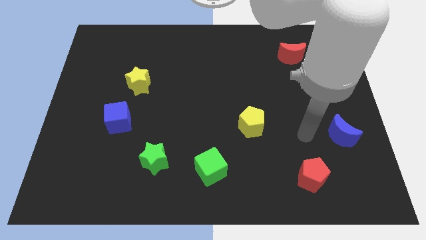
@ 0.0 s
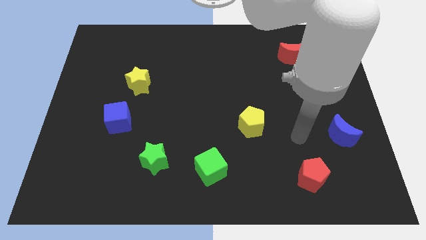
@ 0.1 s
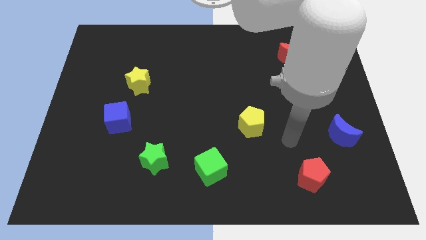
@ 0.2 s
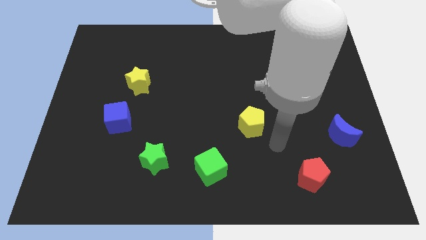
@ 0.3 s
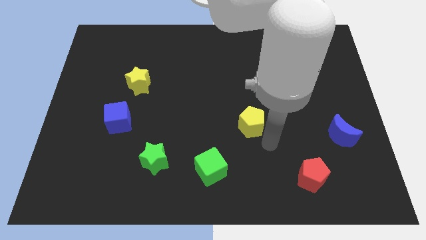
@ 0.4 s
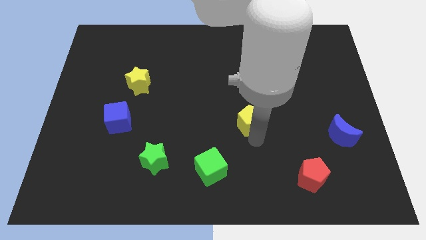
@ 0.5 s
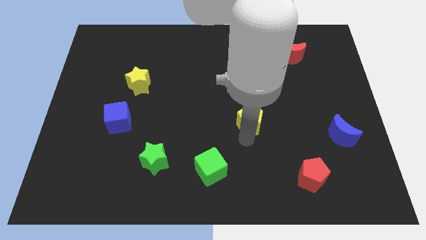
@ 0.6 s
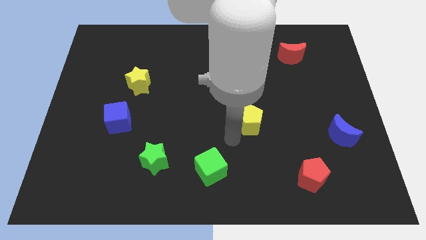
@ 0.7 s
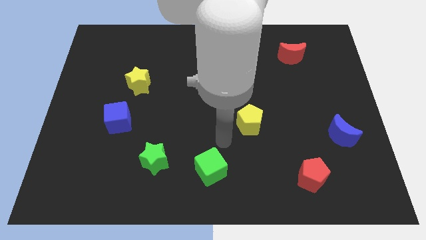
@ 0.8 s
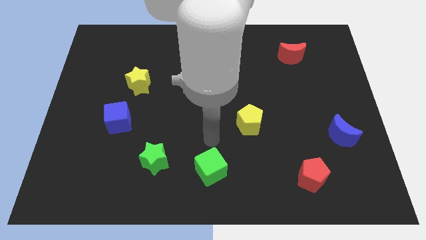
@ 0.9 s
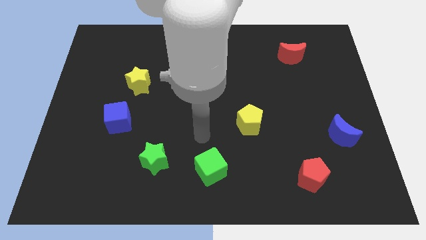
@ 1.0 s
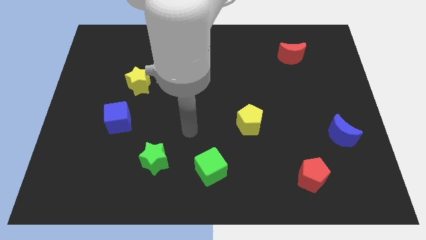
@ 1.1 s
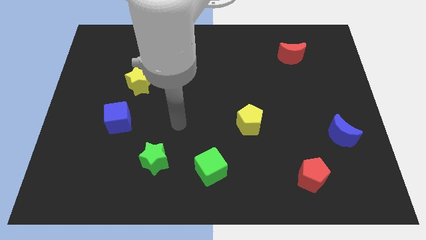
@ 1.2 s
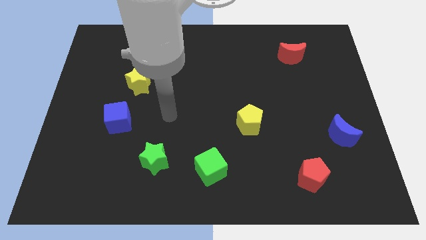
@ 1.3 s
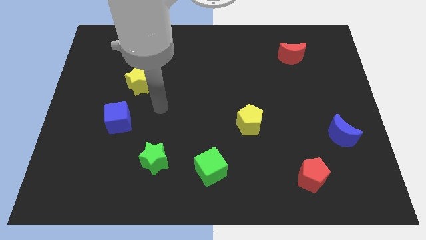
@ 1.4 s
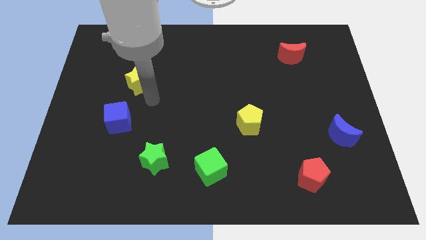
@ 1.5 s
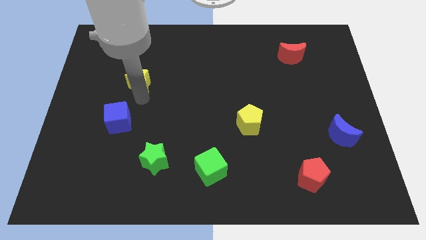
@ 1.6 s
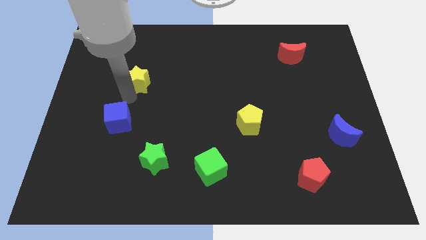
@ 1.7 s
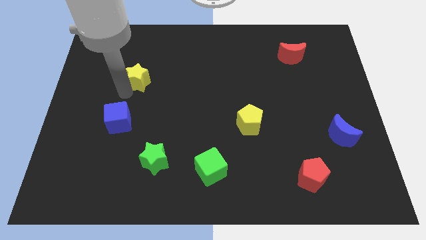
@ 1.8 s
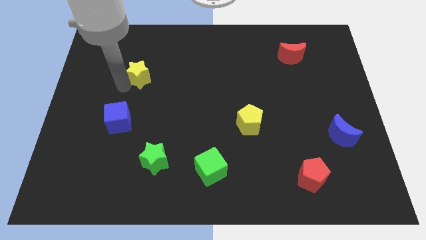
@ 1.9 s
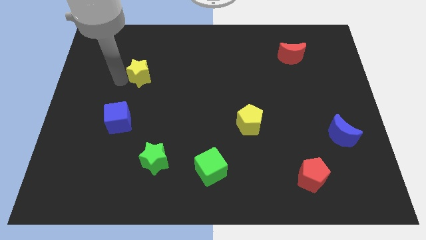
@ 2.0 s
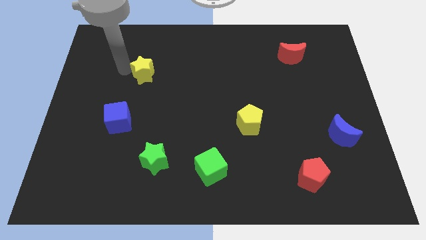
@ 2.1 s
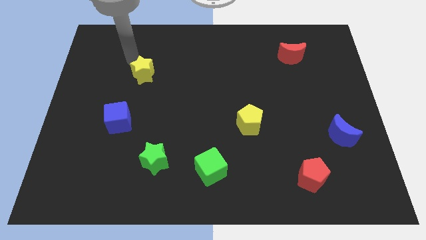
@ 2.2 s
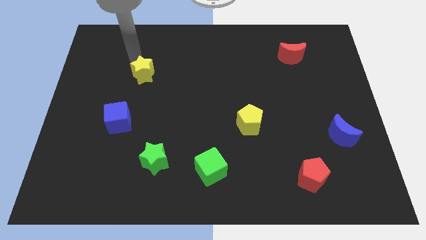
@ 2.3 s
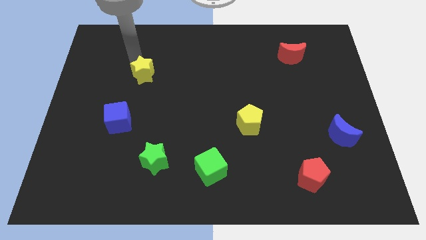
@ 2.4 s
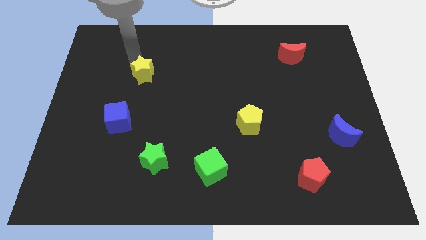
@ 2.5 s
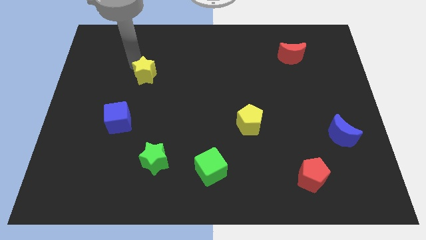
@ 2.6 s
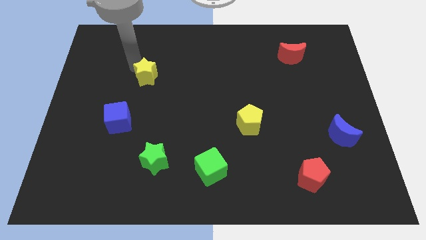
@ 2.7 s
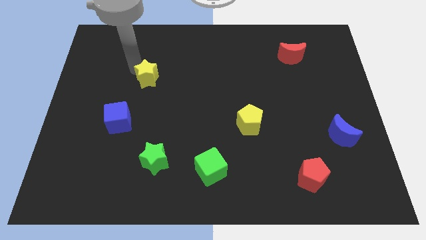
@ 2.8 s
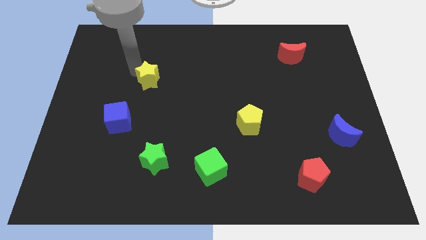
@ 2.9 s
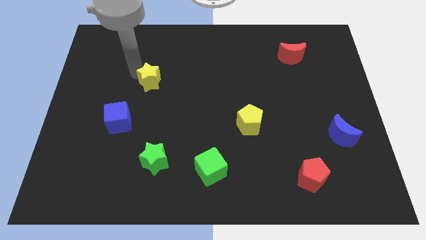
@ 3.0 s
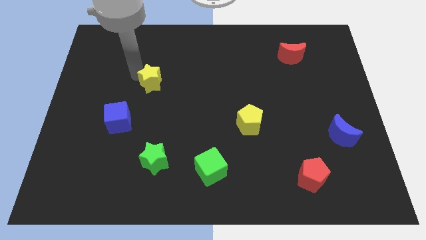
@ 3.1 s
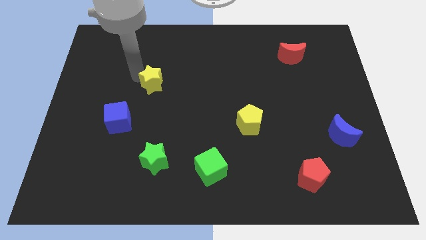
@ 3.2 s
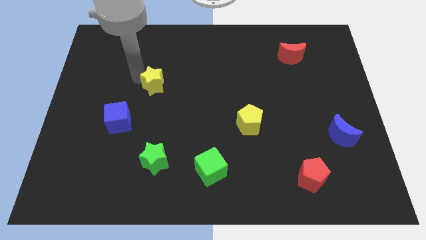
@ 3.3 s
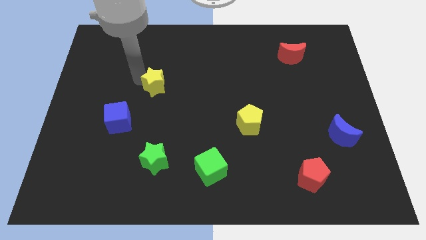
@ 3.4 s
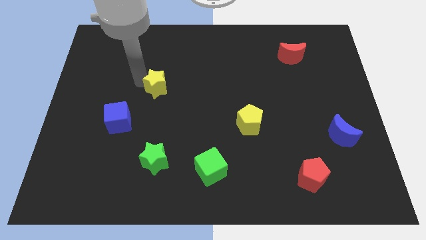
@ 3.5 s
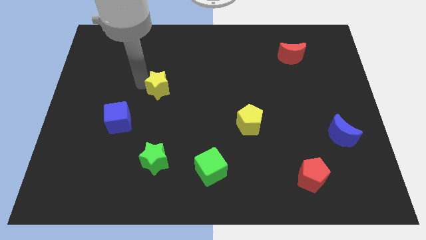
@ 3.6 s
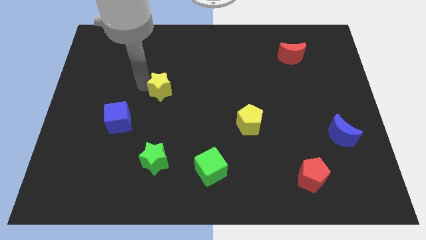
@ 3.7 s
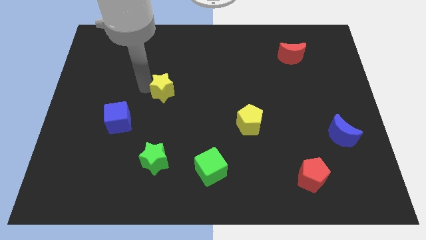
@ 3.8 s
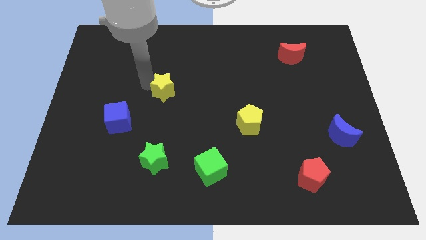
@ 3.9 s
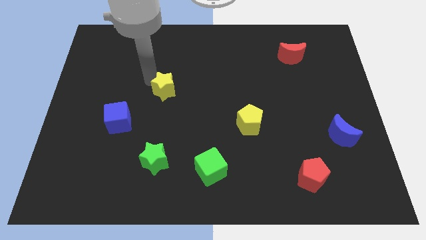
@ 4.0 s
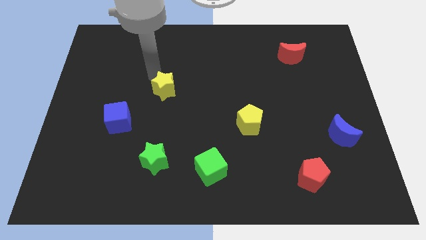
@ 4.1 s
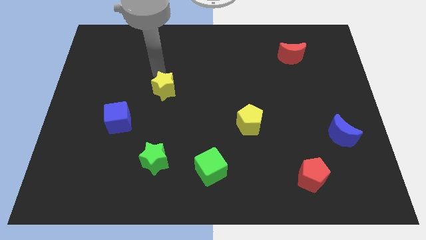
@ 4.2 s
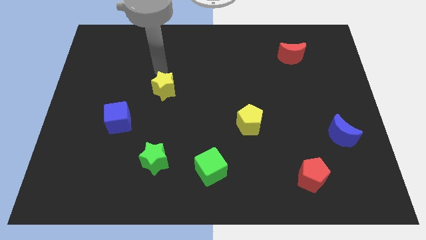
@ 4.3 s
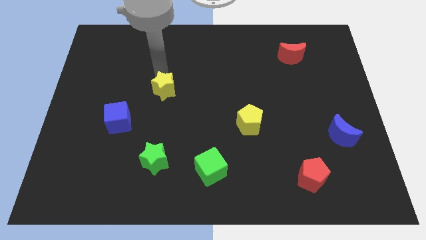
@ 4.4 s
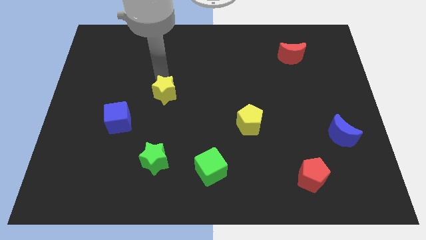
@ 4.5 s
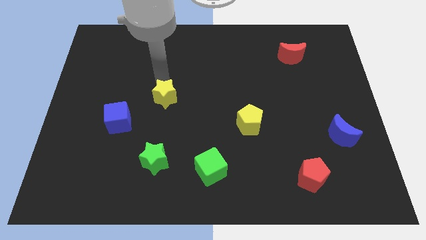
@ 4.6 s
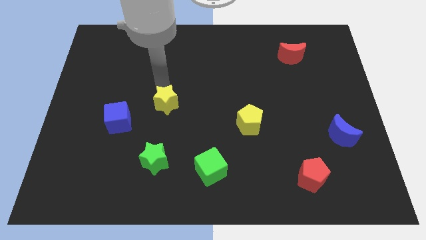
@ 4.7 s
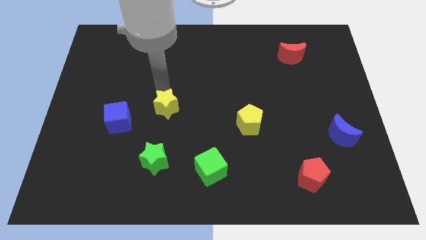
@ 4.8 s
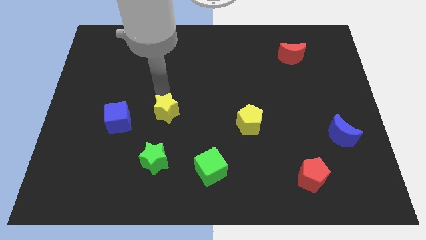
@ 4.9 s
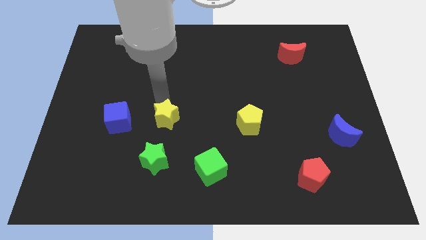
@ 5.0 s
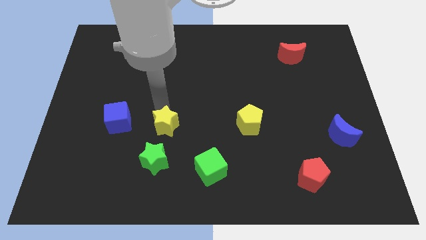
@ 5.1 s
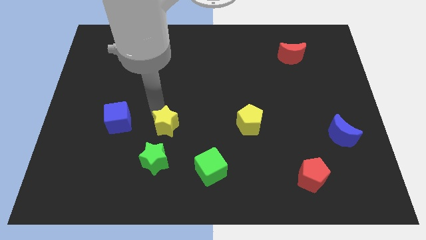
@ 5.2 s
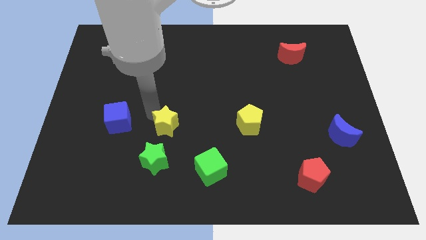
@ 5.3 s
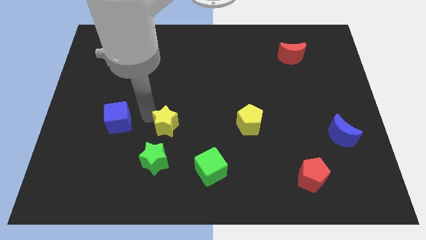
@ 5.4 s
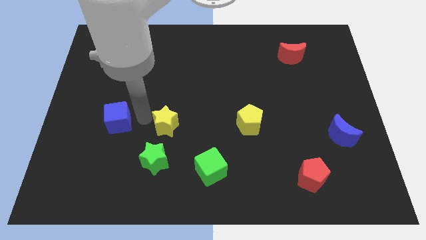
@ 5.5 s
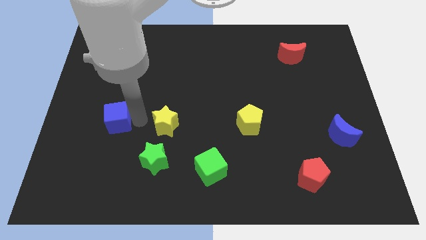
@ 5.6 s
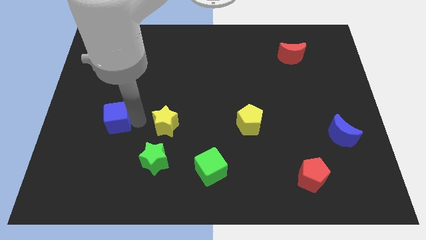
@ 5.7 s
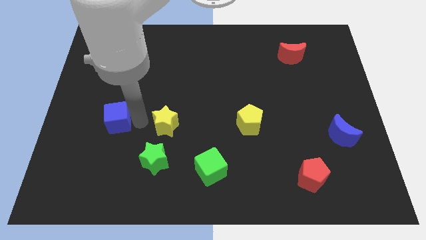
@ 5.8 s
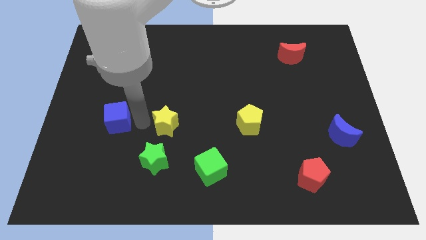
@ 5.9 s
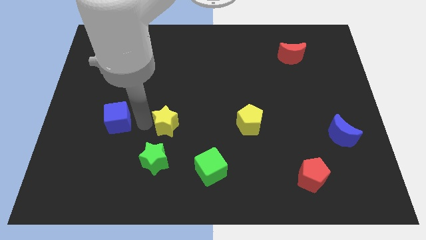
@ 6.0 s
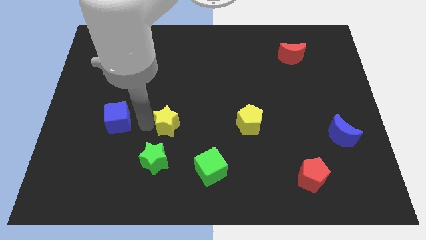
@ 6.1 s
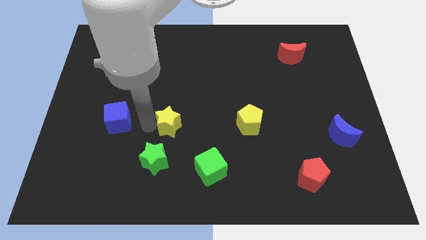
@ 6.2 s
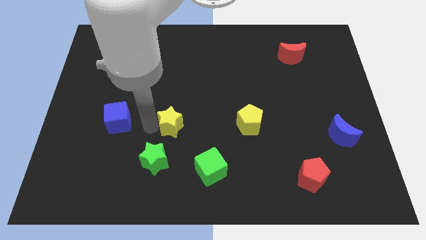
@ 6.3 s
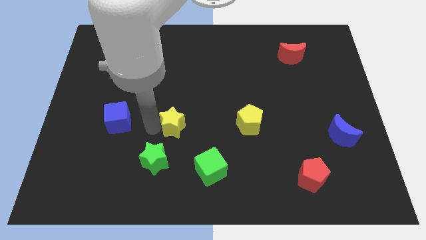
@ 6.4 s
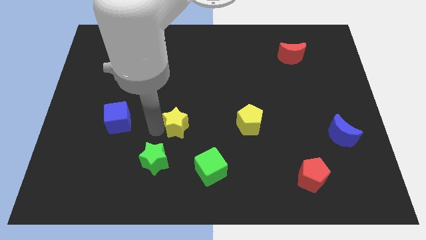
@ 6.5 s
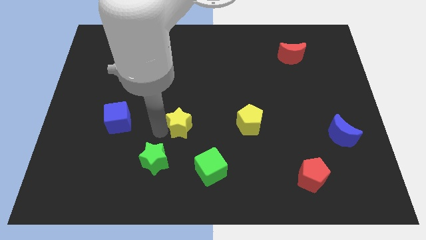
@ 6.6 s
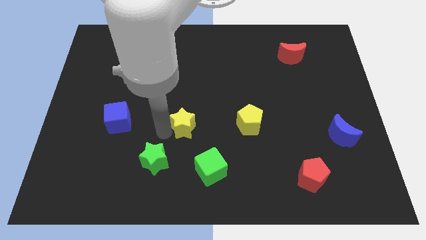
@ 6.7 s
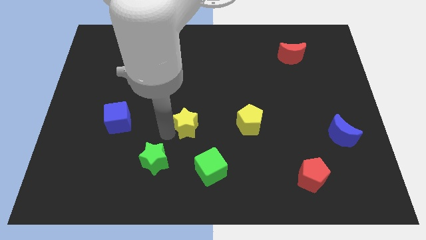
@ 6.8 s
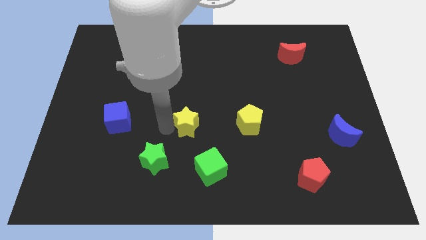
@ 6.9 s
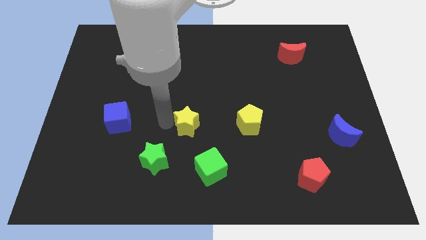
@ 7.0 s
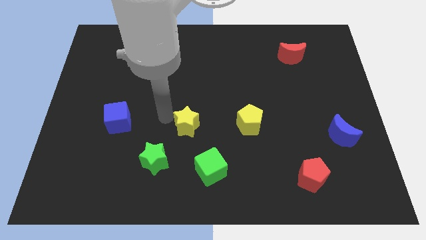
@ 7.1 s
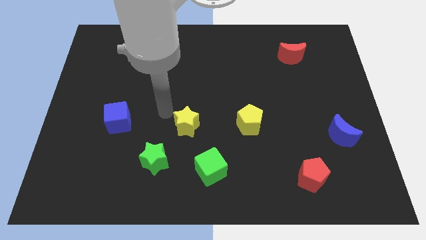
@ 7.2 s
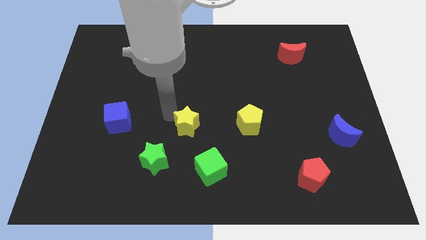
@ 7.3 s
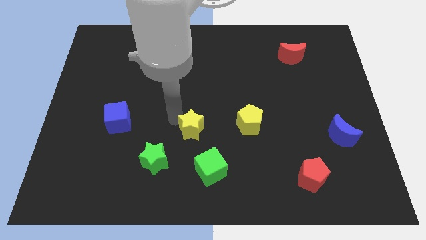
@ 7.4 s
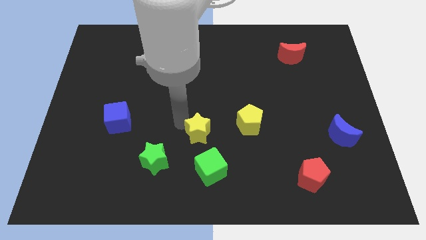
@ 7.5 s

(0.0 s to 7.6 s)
push the yellow star down and then to the right

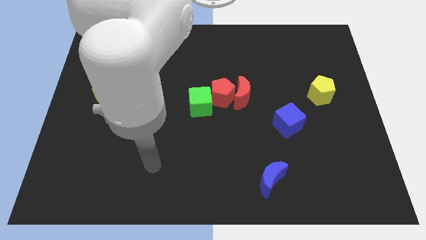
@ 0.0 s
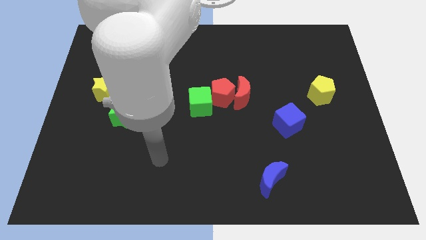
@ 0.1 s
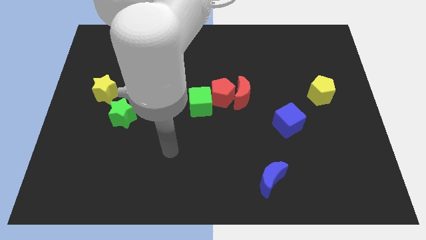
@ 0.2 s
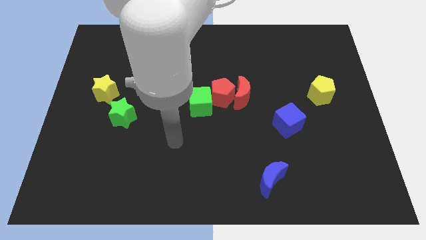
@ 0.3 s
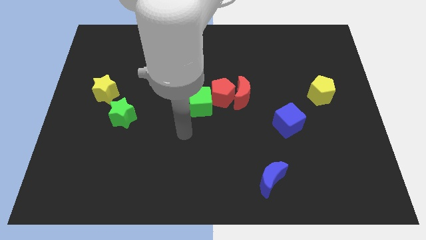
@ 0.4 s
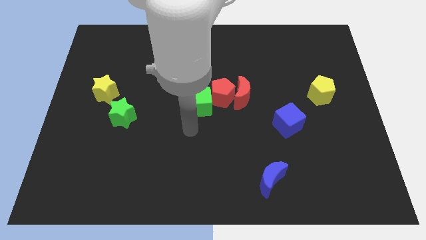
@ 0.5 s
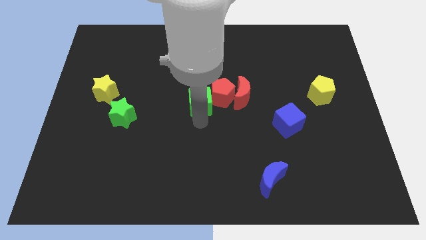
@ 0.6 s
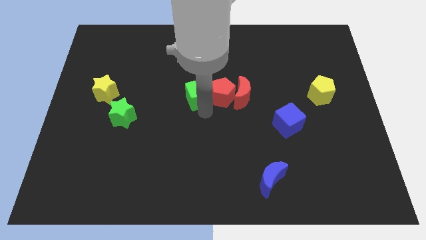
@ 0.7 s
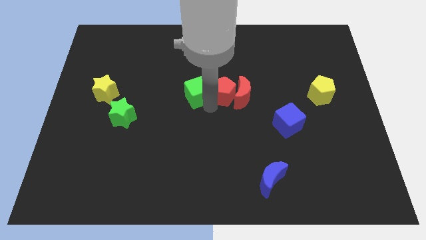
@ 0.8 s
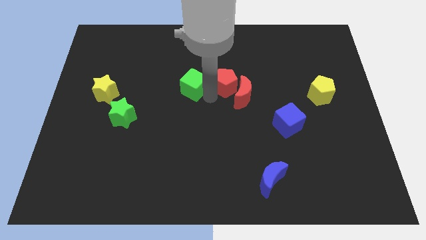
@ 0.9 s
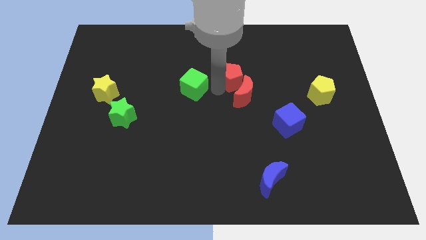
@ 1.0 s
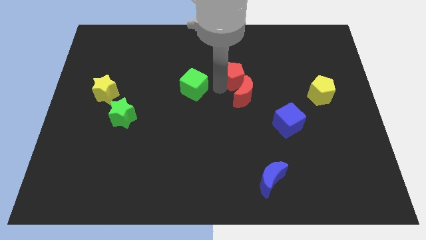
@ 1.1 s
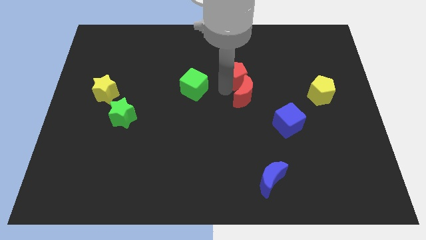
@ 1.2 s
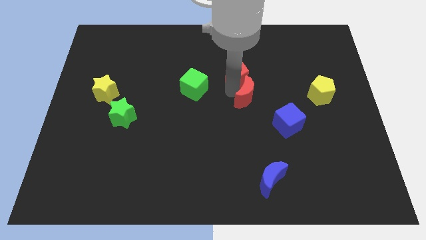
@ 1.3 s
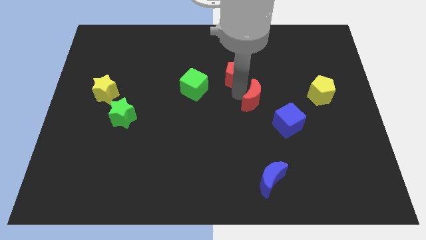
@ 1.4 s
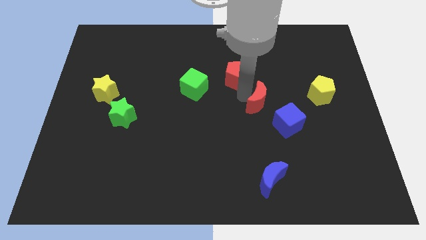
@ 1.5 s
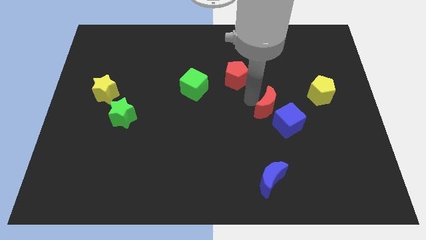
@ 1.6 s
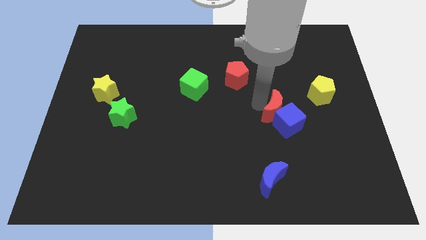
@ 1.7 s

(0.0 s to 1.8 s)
push the red moon a little bit downwards and right diagonally
